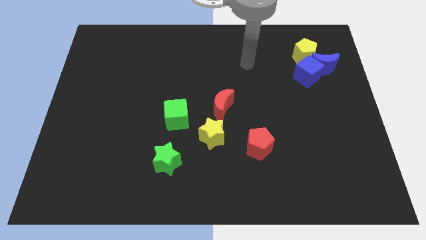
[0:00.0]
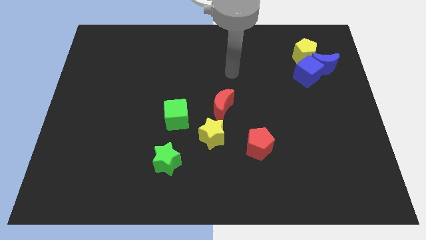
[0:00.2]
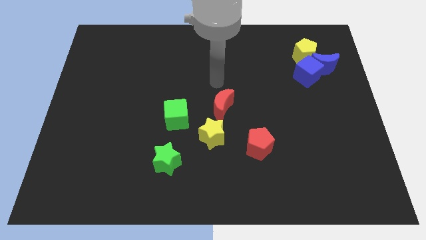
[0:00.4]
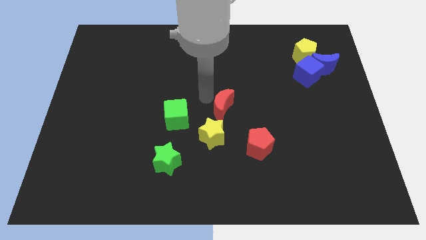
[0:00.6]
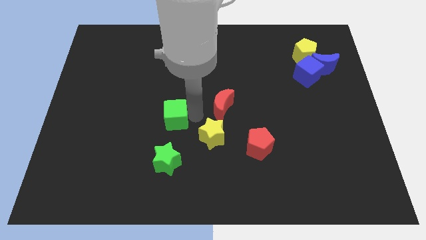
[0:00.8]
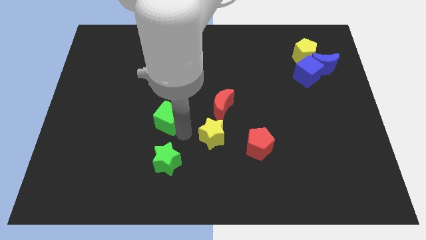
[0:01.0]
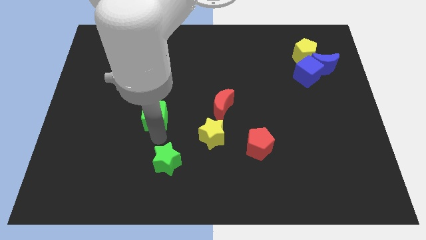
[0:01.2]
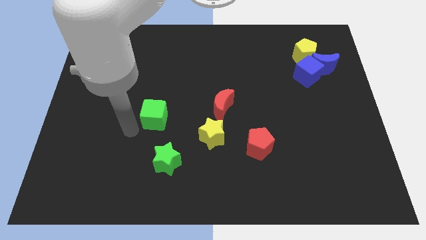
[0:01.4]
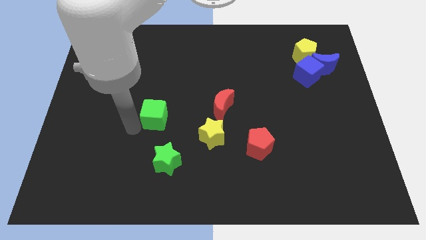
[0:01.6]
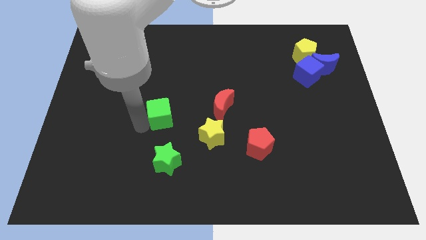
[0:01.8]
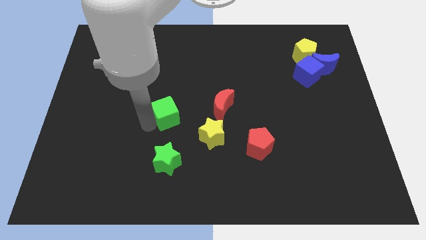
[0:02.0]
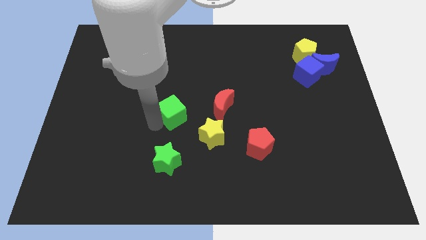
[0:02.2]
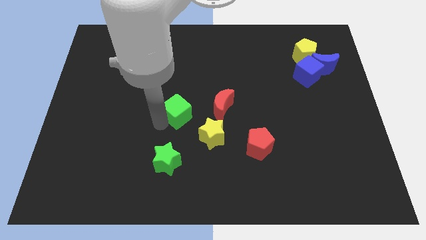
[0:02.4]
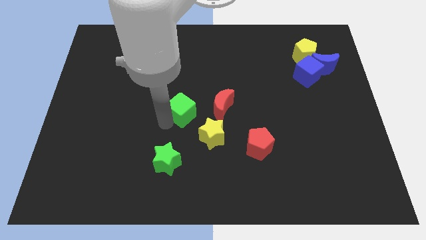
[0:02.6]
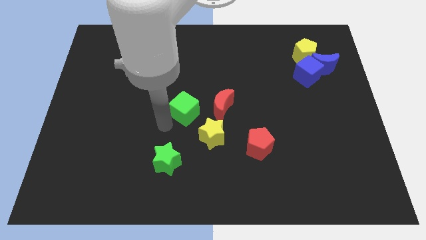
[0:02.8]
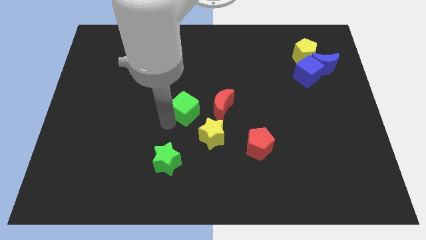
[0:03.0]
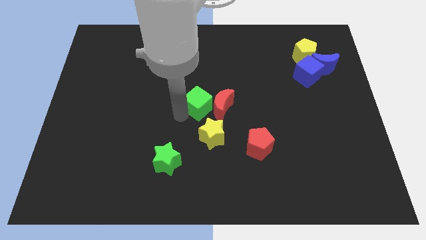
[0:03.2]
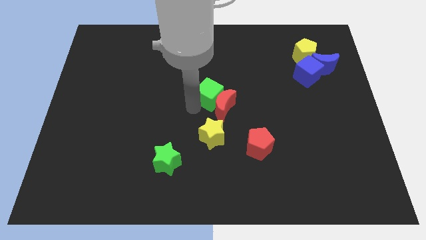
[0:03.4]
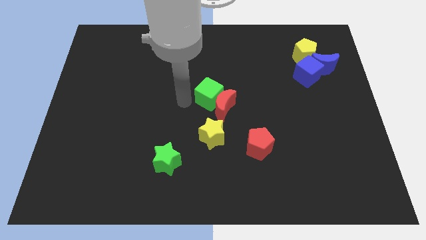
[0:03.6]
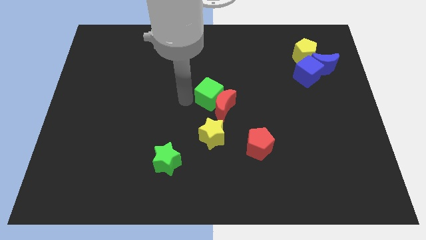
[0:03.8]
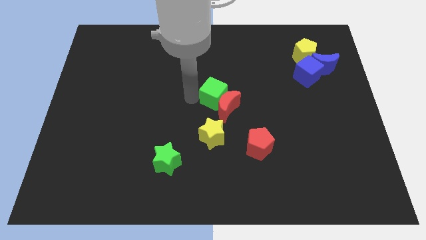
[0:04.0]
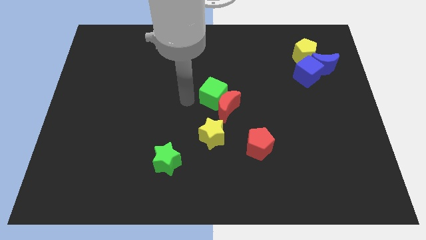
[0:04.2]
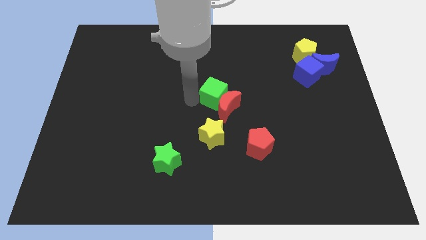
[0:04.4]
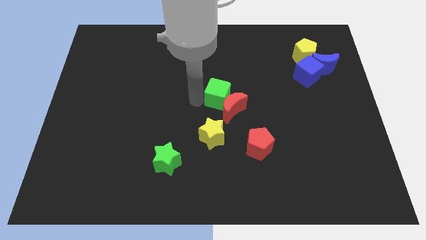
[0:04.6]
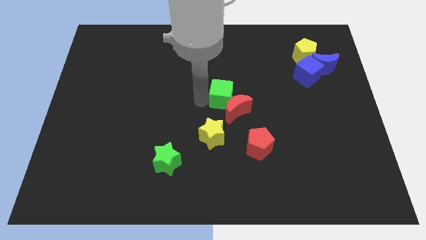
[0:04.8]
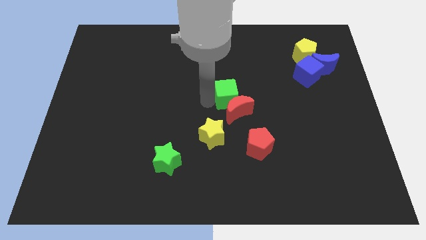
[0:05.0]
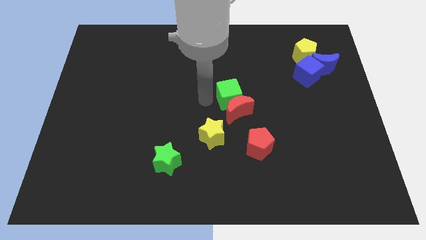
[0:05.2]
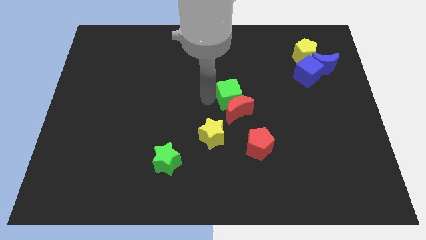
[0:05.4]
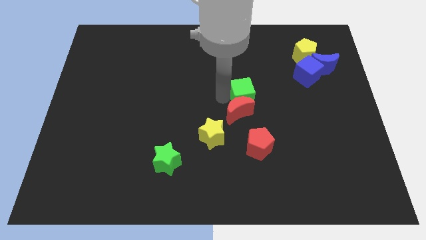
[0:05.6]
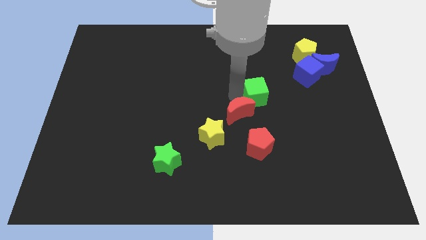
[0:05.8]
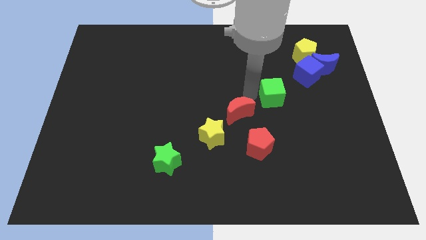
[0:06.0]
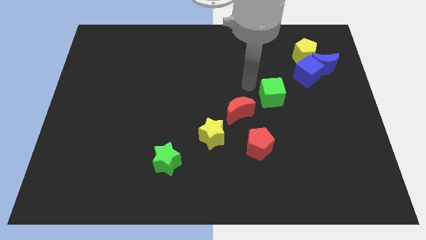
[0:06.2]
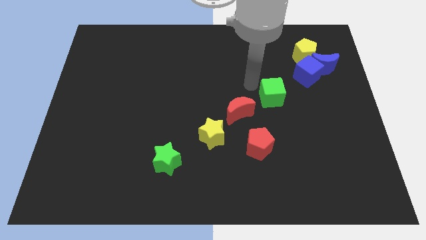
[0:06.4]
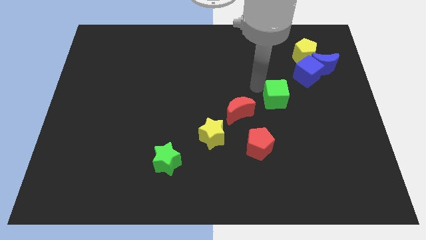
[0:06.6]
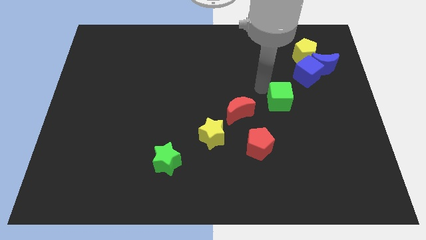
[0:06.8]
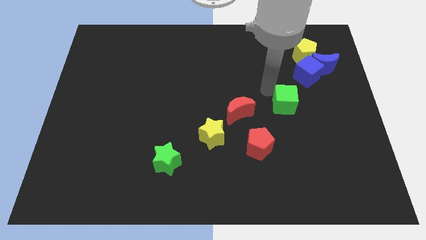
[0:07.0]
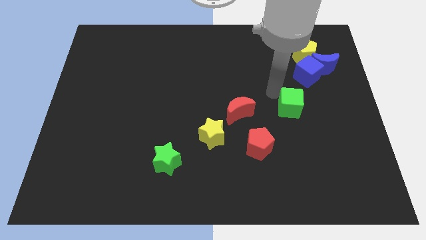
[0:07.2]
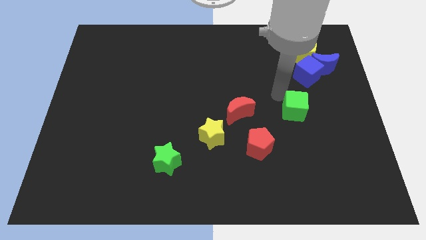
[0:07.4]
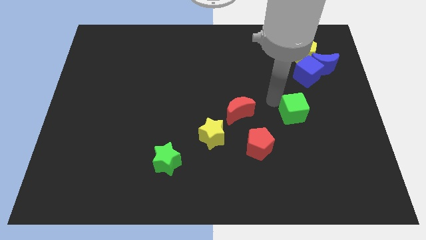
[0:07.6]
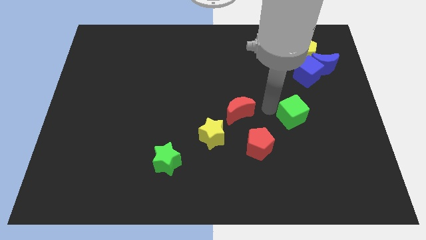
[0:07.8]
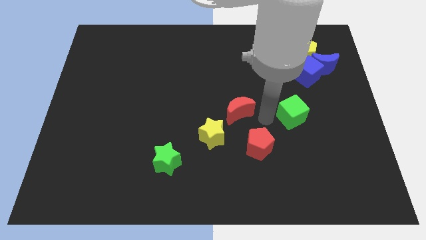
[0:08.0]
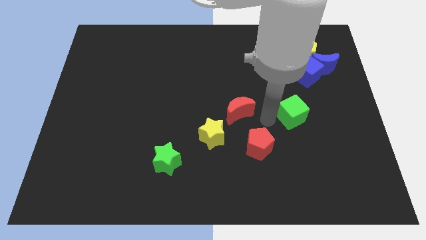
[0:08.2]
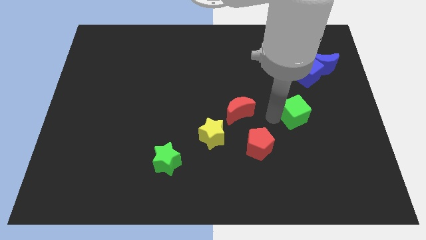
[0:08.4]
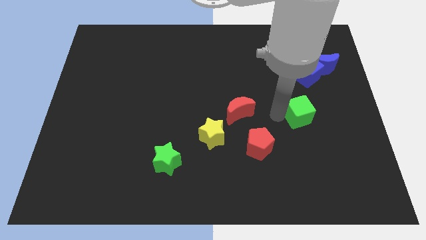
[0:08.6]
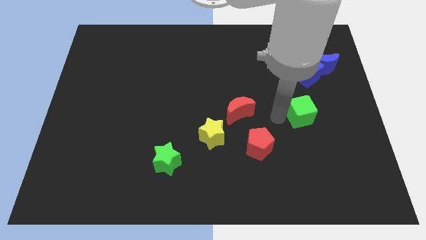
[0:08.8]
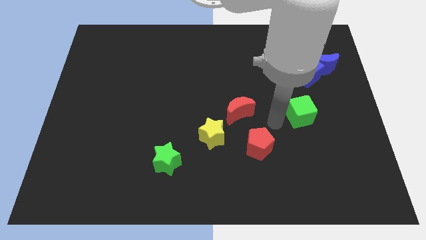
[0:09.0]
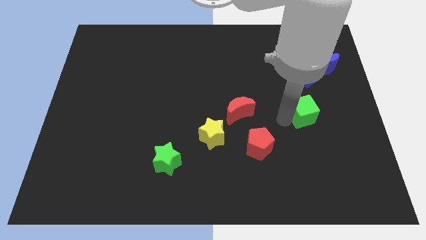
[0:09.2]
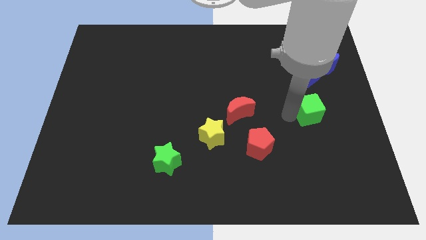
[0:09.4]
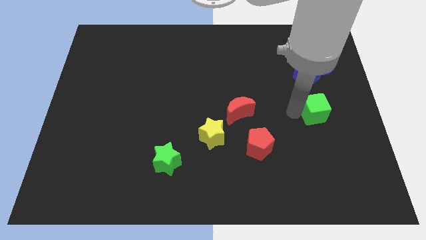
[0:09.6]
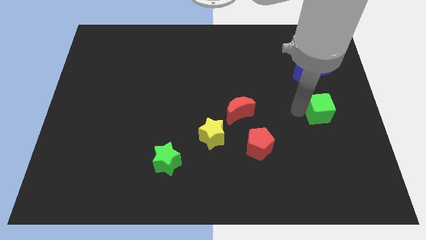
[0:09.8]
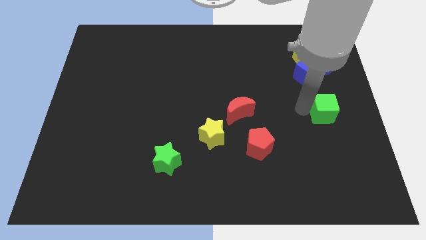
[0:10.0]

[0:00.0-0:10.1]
put the green cube to the right side

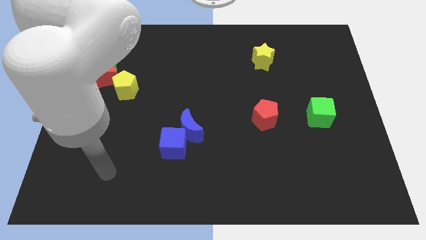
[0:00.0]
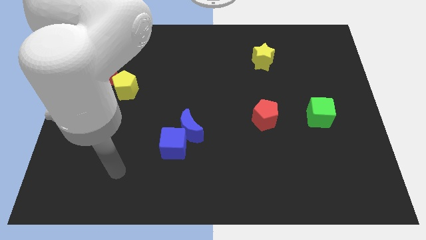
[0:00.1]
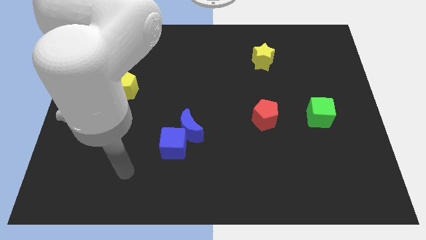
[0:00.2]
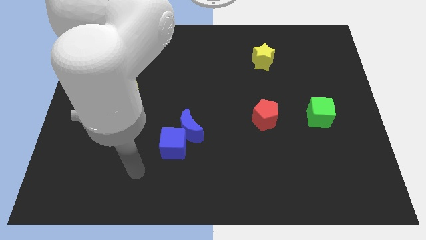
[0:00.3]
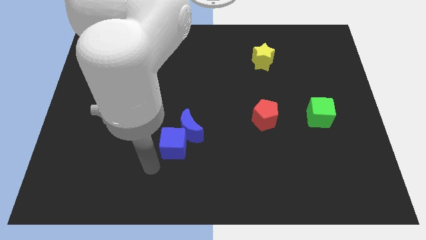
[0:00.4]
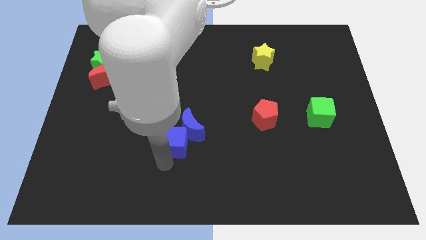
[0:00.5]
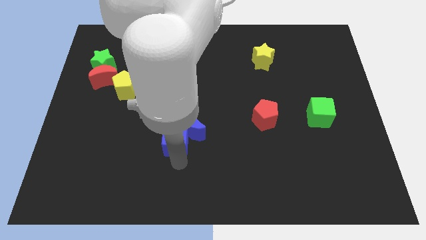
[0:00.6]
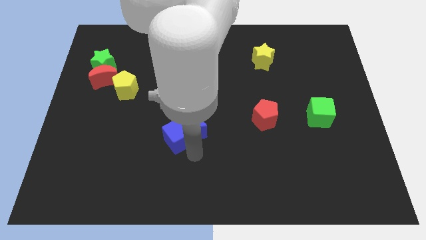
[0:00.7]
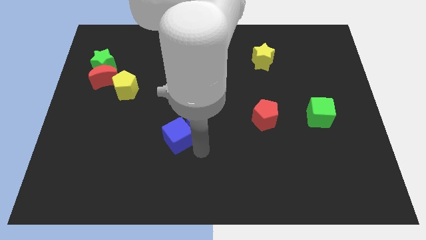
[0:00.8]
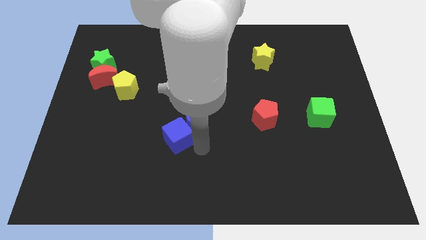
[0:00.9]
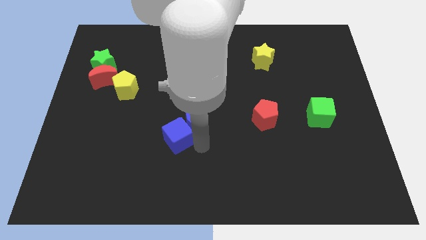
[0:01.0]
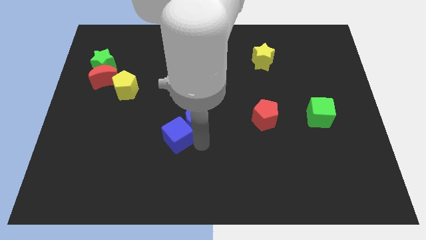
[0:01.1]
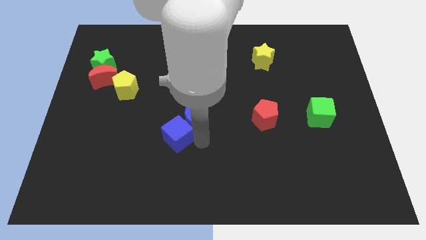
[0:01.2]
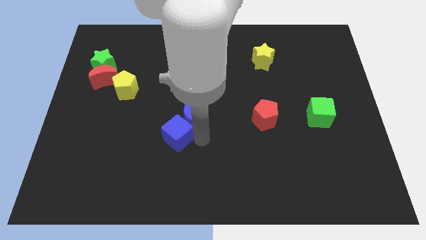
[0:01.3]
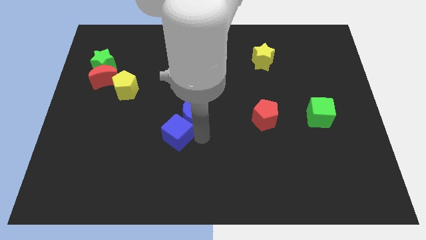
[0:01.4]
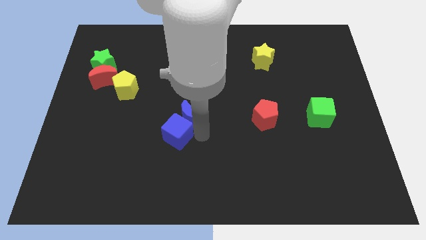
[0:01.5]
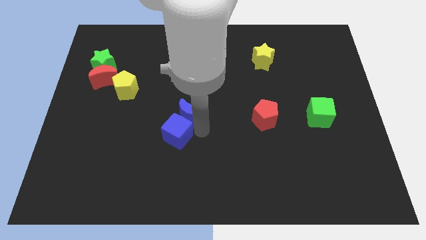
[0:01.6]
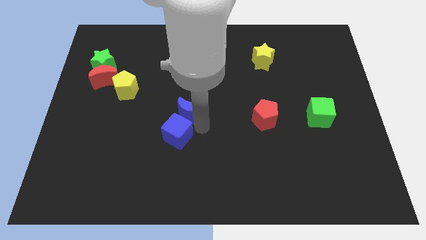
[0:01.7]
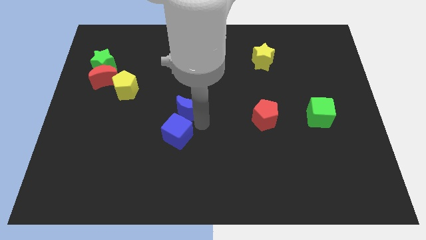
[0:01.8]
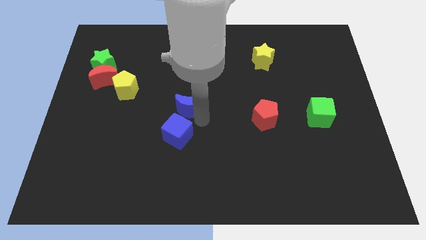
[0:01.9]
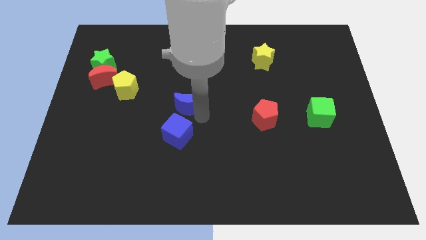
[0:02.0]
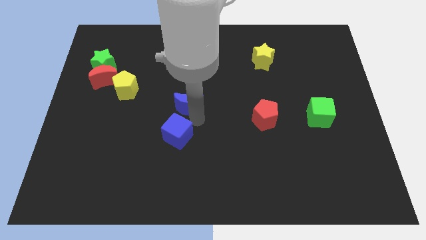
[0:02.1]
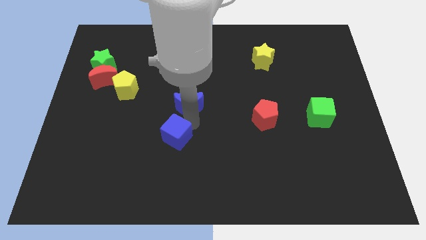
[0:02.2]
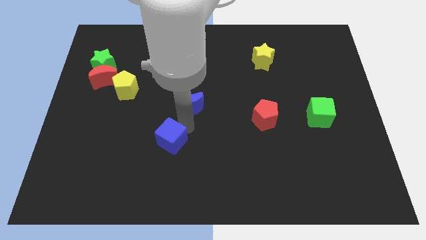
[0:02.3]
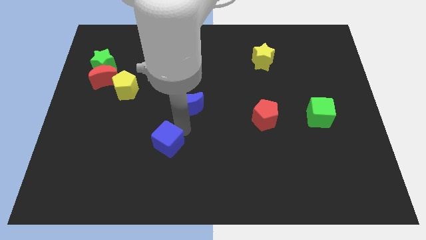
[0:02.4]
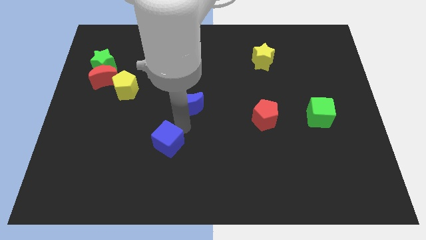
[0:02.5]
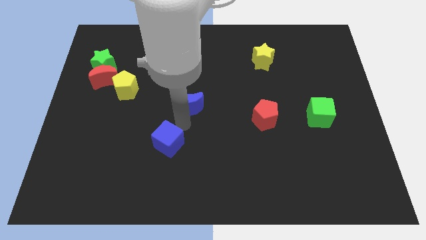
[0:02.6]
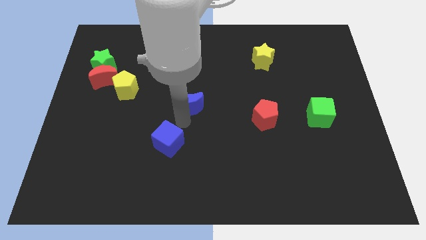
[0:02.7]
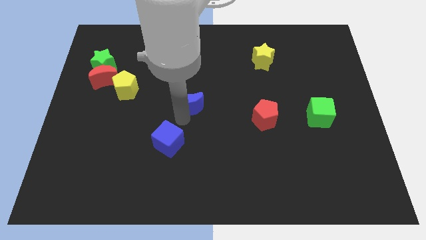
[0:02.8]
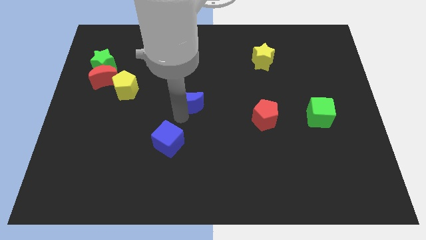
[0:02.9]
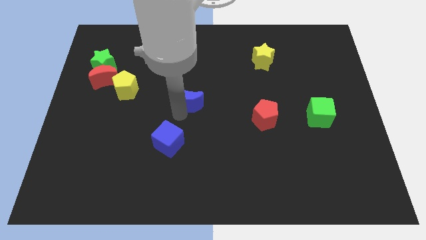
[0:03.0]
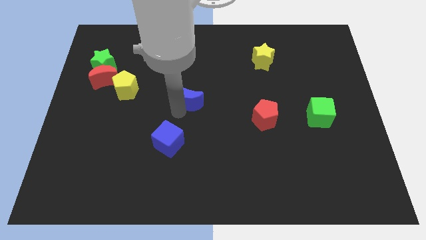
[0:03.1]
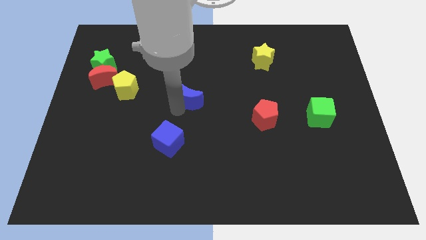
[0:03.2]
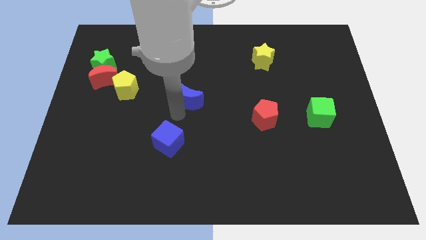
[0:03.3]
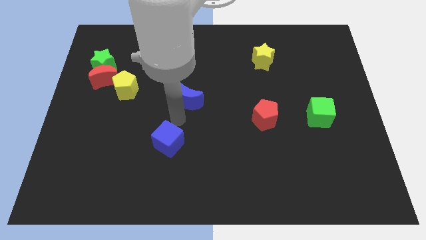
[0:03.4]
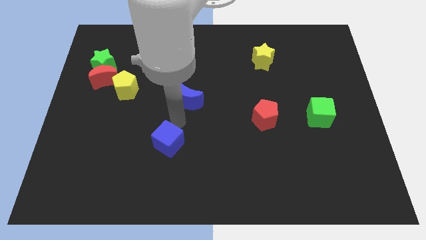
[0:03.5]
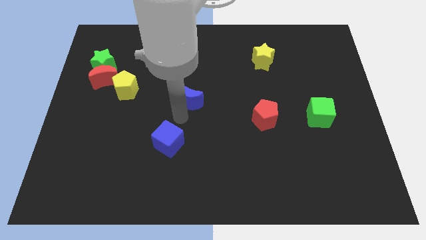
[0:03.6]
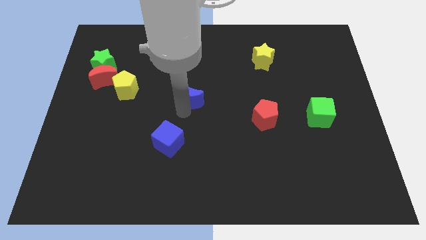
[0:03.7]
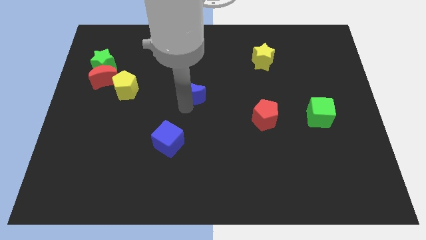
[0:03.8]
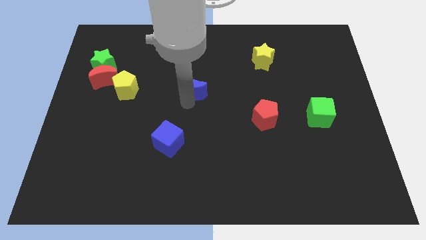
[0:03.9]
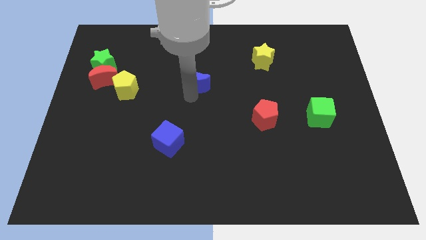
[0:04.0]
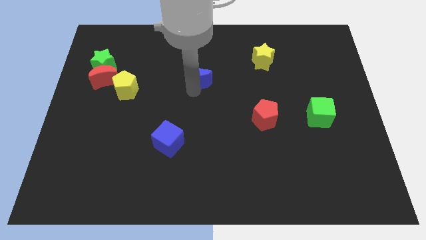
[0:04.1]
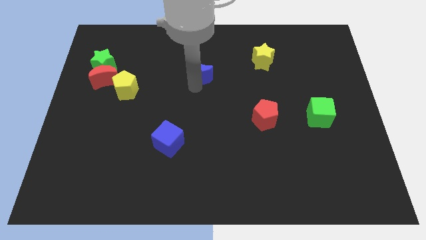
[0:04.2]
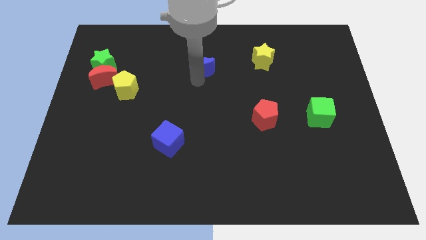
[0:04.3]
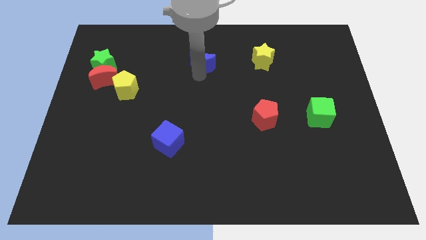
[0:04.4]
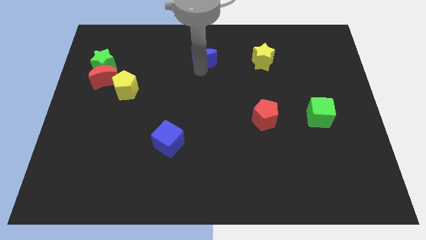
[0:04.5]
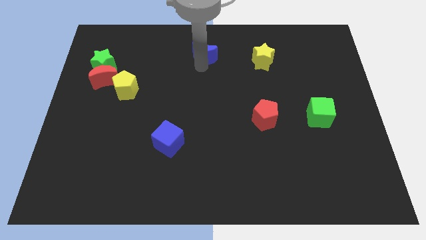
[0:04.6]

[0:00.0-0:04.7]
slide the blue moon to the top side
